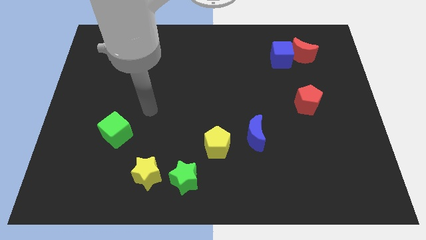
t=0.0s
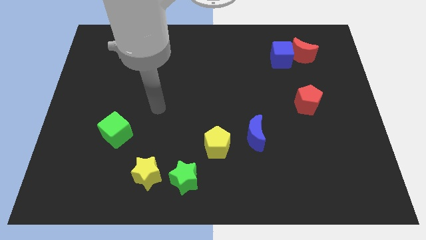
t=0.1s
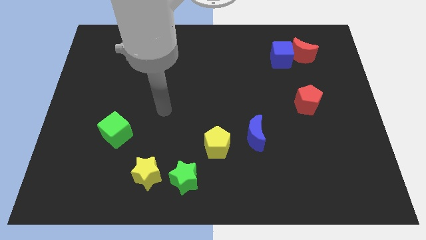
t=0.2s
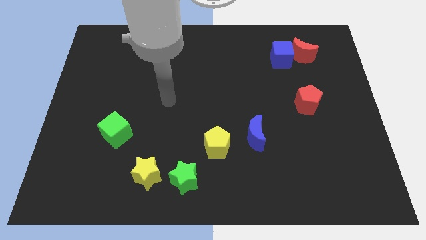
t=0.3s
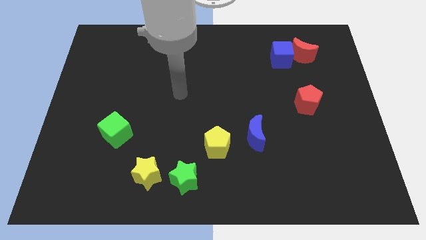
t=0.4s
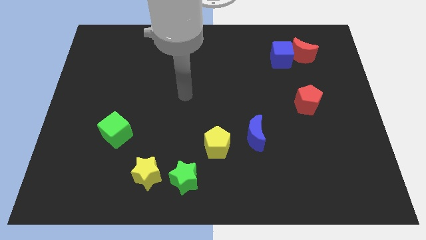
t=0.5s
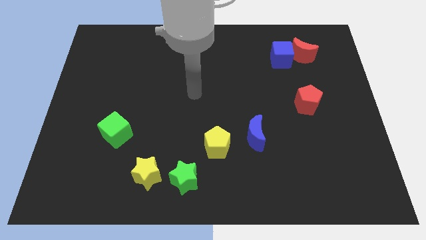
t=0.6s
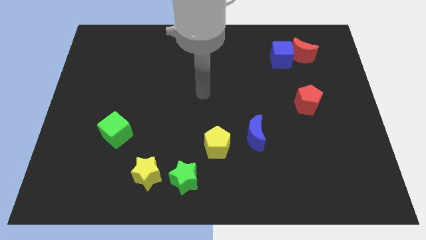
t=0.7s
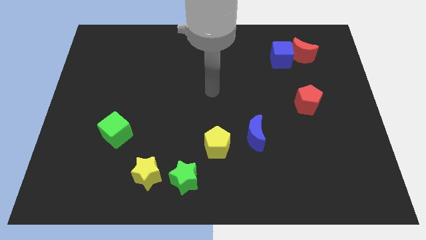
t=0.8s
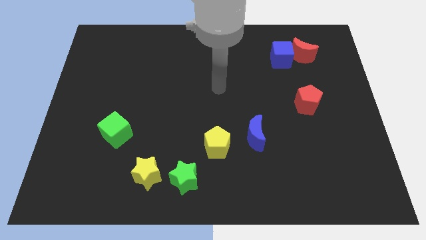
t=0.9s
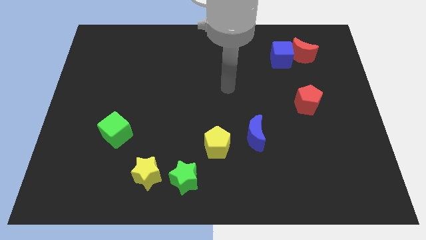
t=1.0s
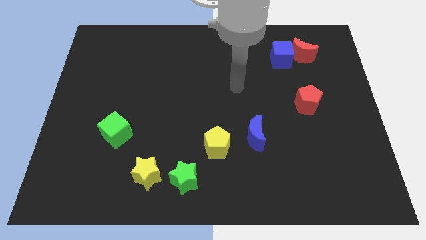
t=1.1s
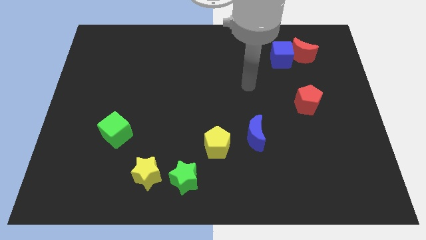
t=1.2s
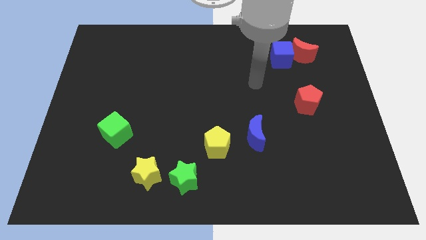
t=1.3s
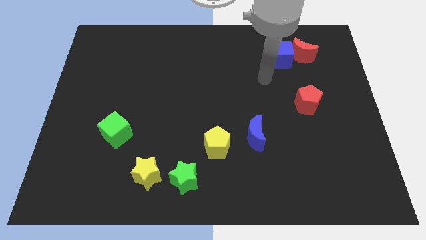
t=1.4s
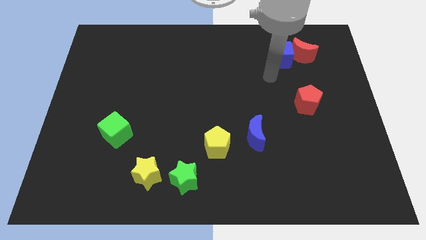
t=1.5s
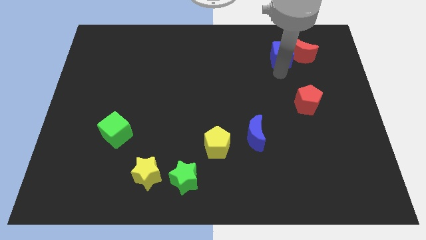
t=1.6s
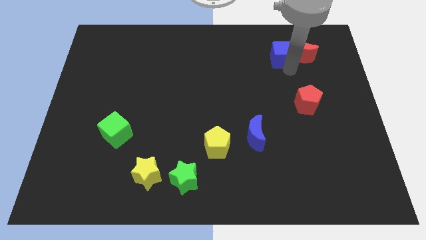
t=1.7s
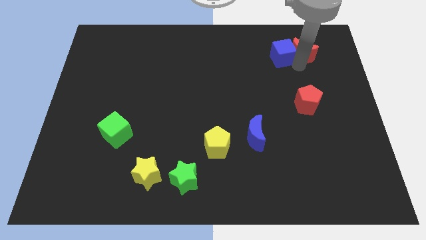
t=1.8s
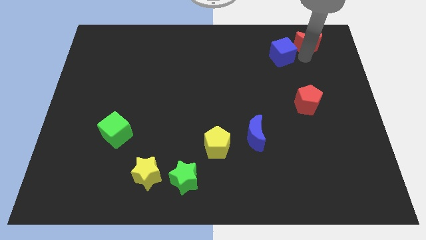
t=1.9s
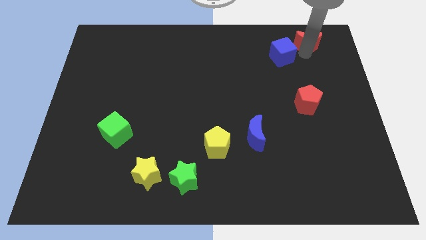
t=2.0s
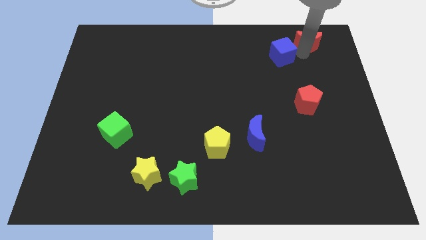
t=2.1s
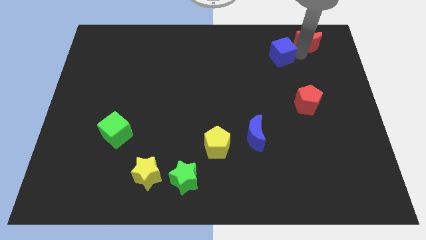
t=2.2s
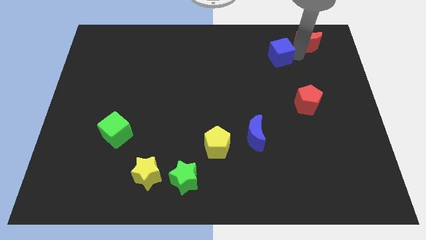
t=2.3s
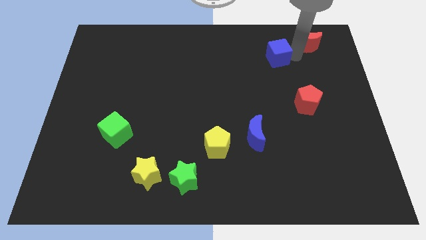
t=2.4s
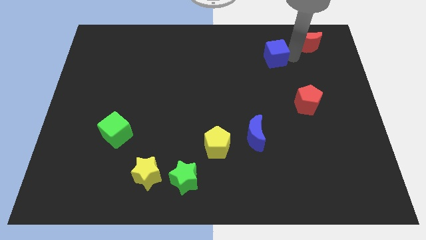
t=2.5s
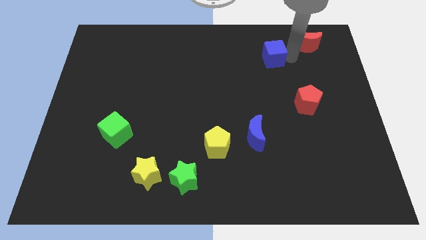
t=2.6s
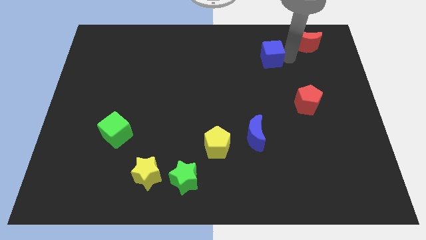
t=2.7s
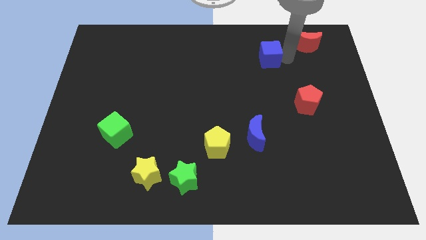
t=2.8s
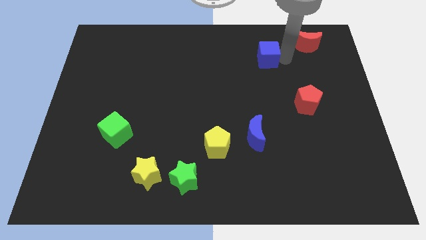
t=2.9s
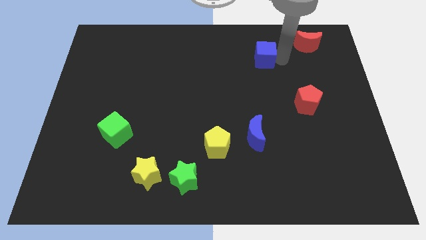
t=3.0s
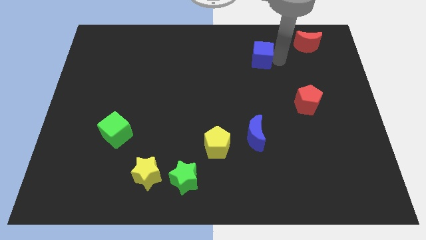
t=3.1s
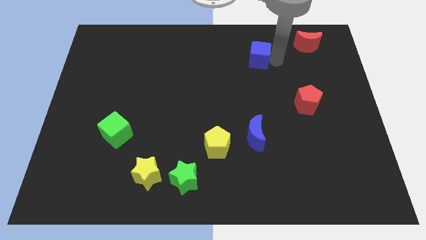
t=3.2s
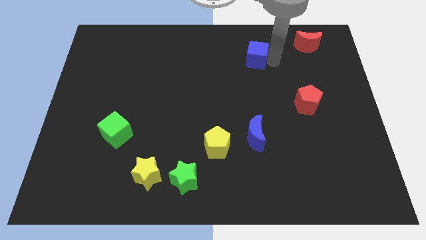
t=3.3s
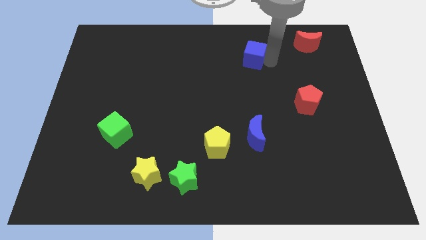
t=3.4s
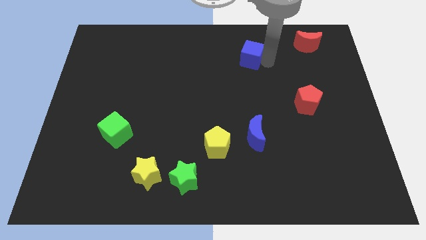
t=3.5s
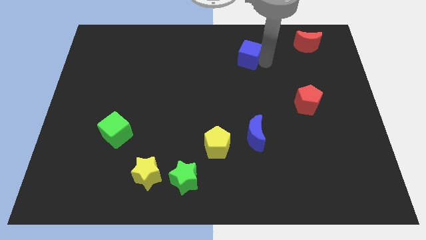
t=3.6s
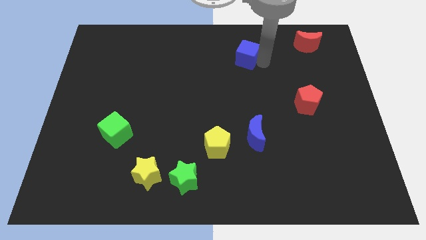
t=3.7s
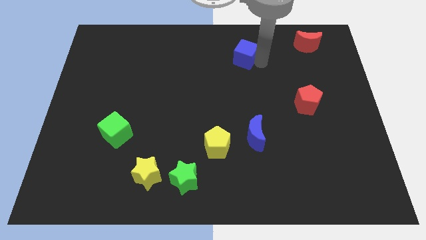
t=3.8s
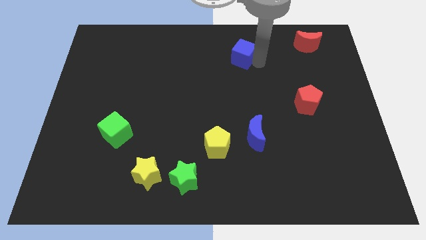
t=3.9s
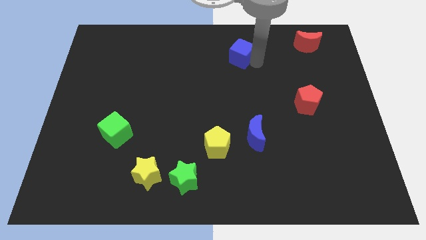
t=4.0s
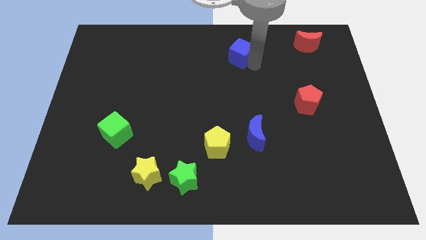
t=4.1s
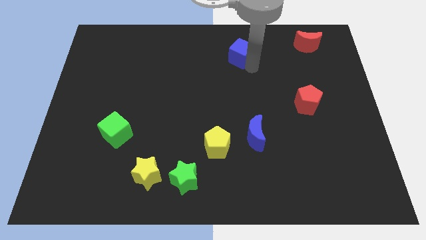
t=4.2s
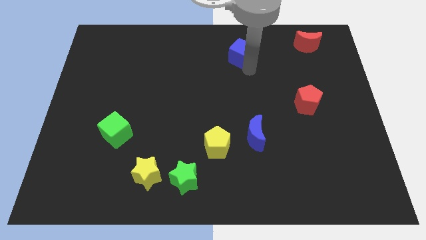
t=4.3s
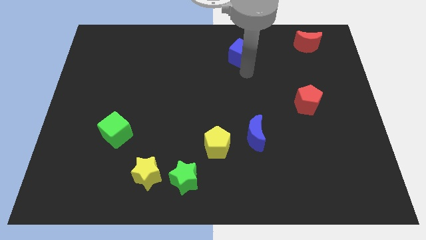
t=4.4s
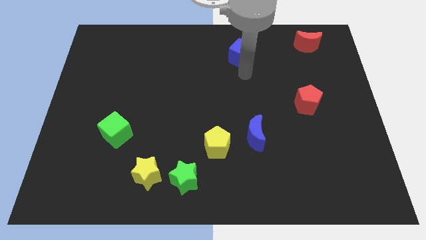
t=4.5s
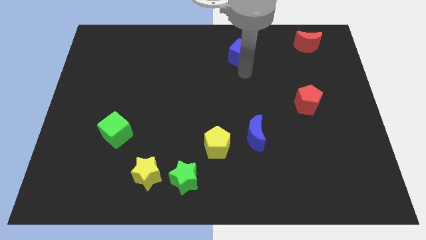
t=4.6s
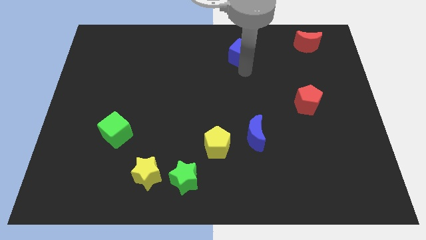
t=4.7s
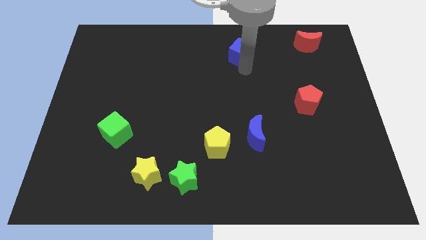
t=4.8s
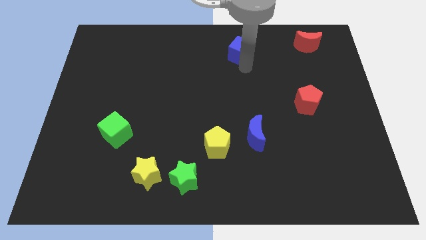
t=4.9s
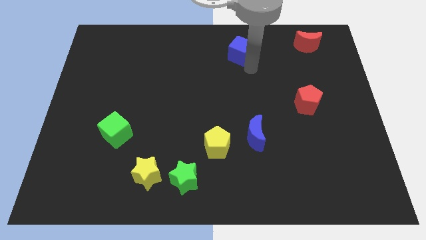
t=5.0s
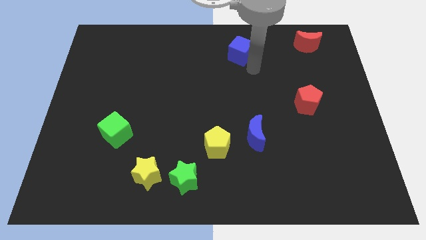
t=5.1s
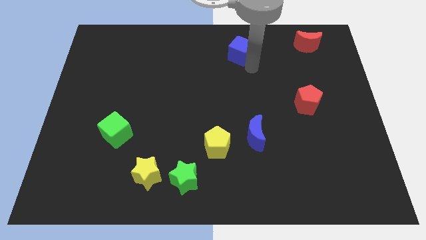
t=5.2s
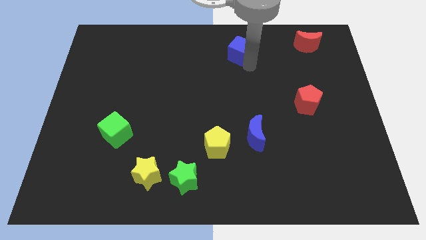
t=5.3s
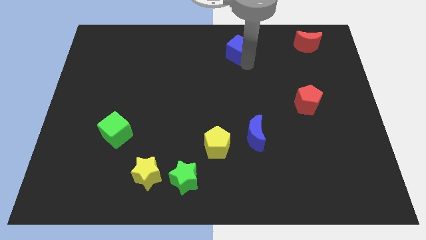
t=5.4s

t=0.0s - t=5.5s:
move the blue cube to the top side

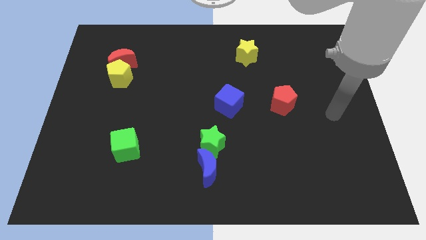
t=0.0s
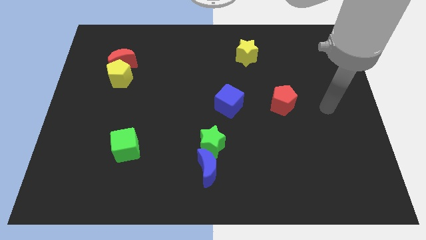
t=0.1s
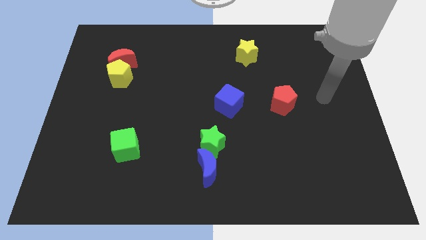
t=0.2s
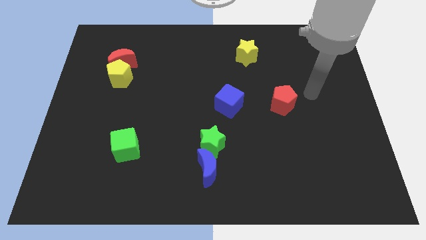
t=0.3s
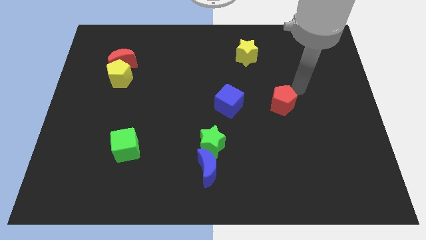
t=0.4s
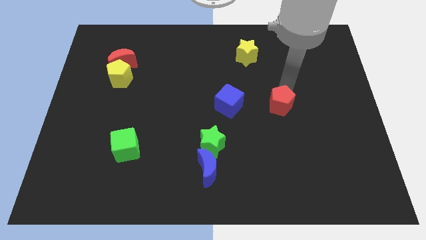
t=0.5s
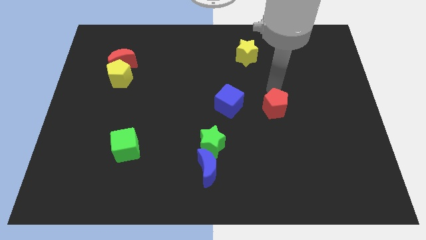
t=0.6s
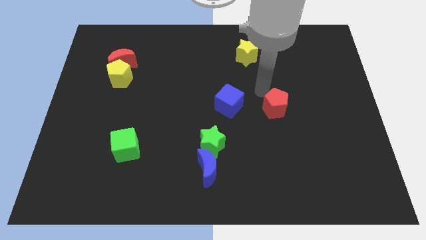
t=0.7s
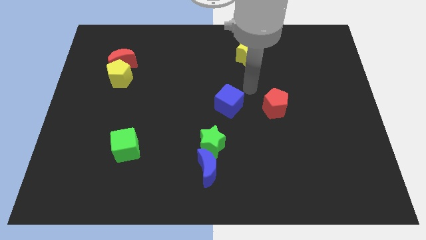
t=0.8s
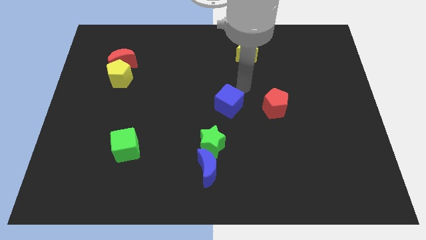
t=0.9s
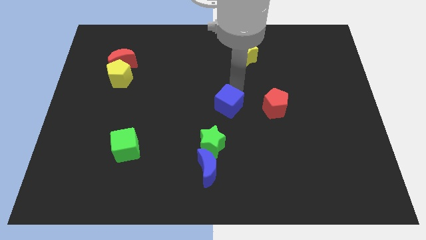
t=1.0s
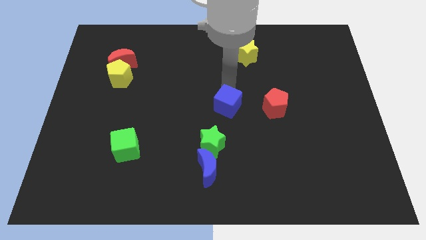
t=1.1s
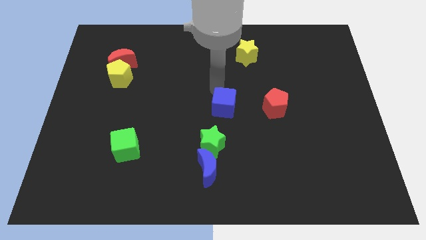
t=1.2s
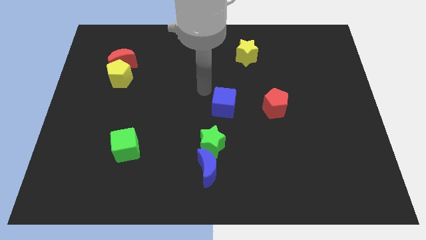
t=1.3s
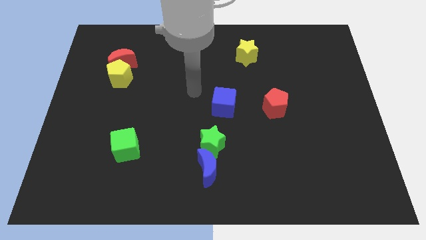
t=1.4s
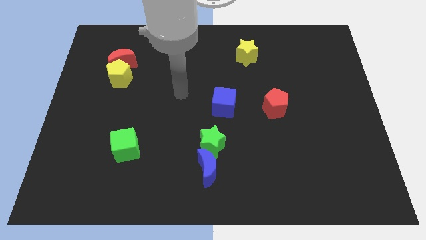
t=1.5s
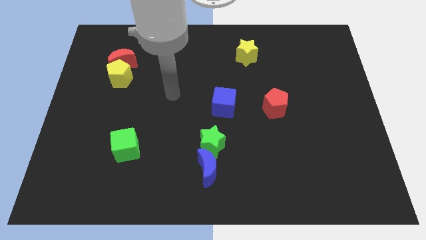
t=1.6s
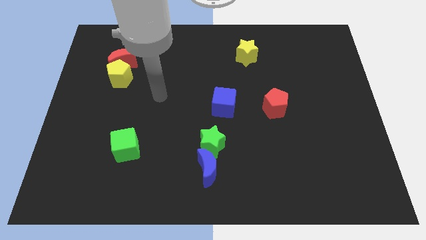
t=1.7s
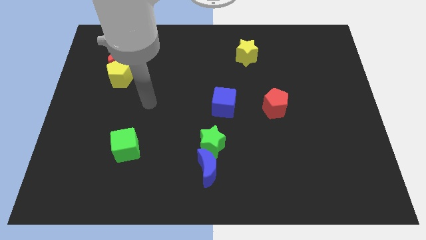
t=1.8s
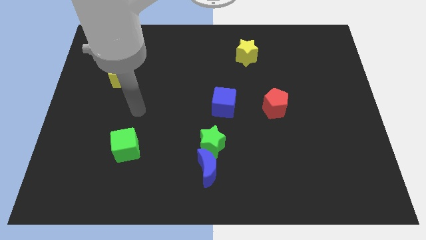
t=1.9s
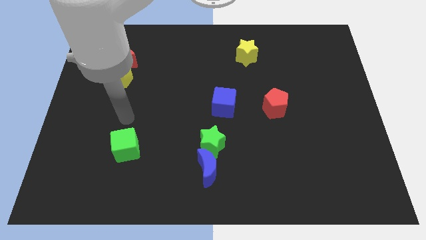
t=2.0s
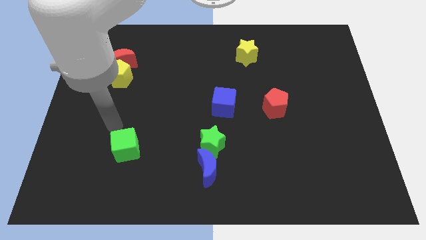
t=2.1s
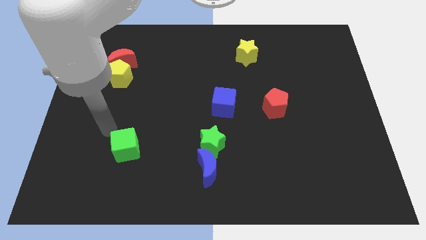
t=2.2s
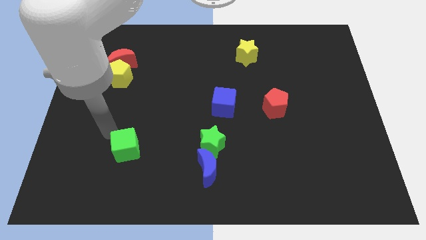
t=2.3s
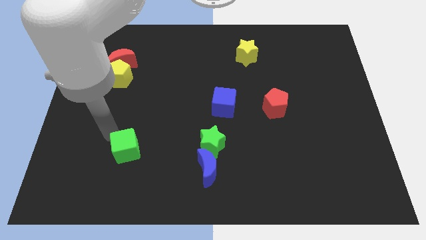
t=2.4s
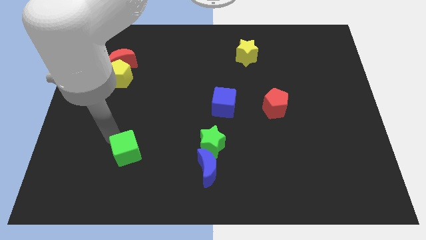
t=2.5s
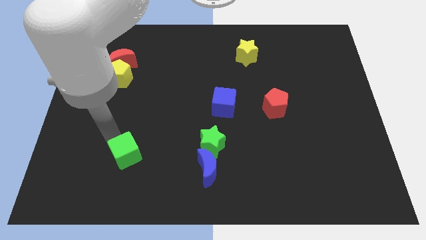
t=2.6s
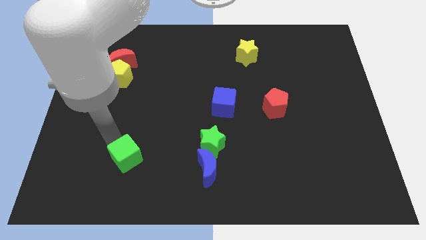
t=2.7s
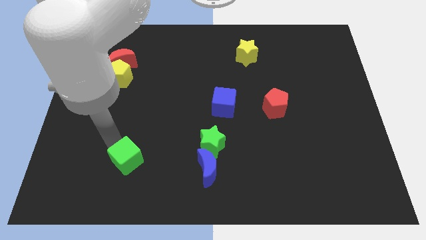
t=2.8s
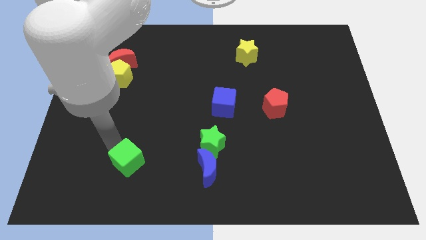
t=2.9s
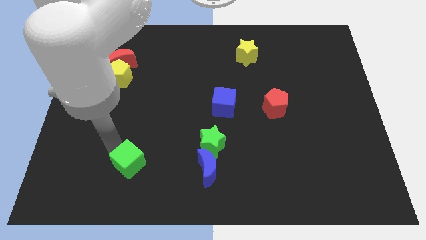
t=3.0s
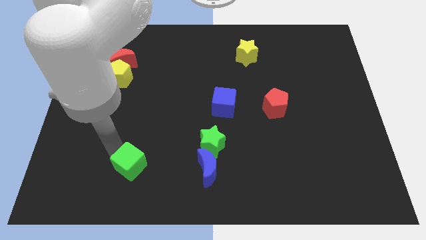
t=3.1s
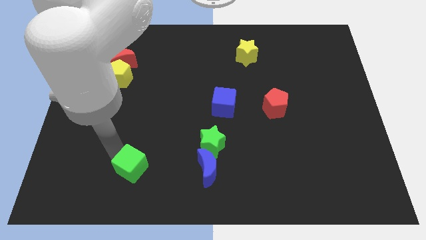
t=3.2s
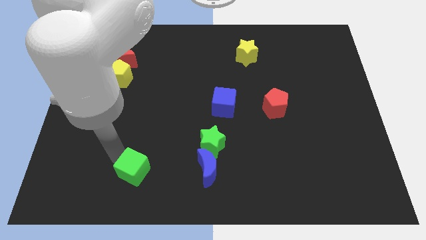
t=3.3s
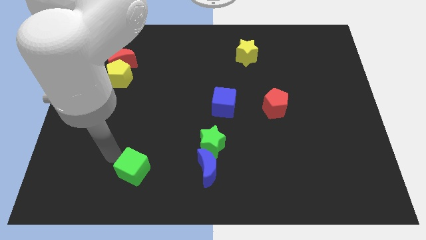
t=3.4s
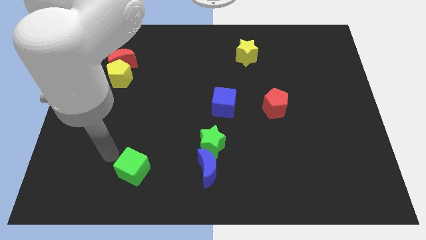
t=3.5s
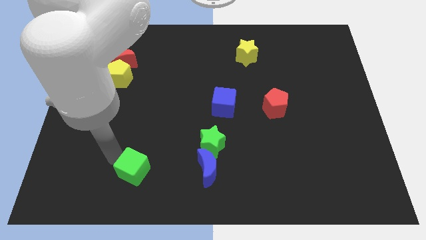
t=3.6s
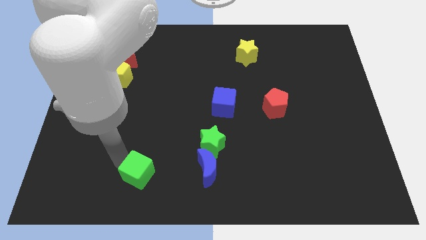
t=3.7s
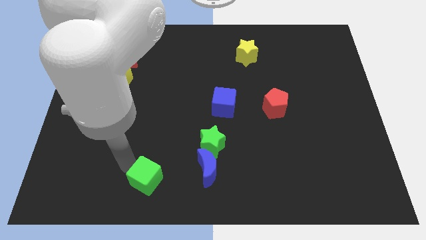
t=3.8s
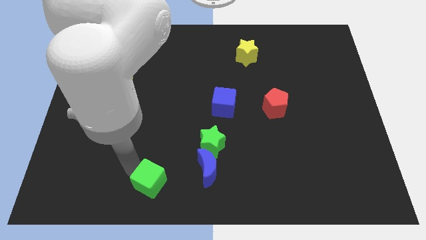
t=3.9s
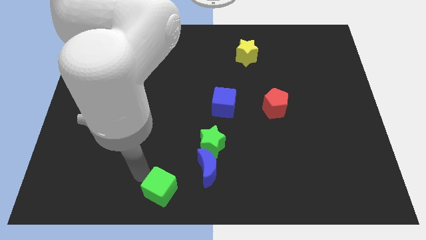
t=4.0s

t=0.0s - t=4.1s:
slide the green cube to the bottom side
